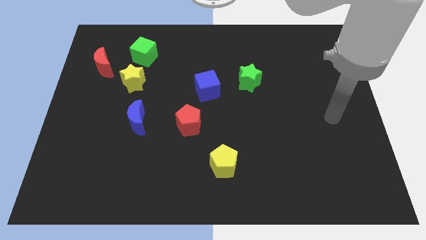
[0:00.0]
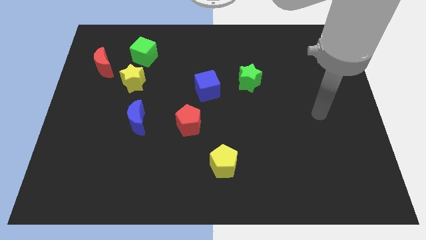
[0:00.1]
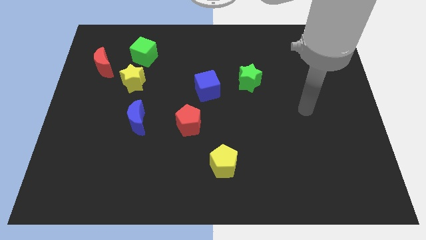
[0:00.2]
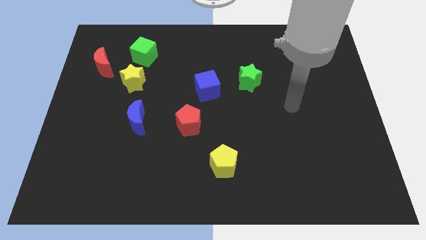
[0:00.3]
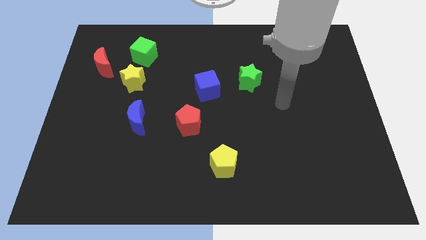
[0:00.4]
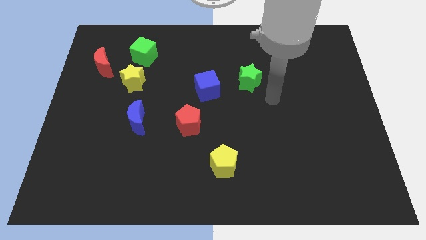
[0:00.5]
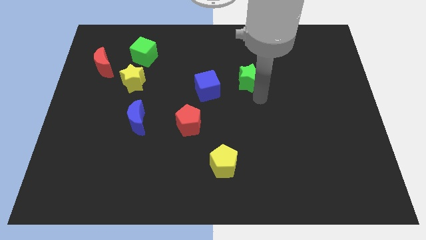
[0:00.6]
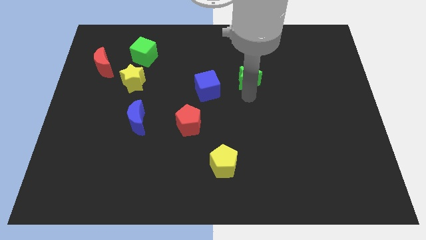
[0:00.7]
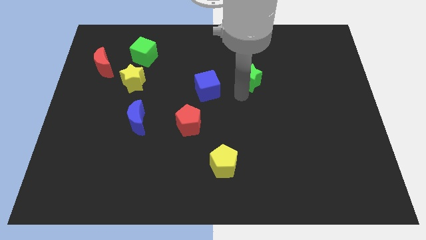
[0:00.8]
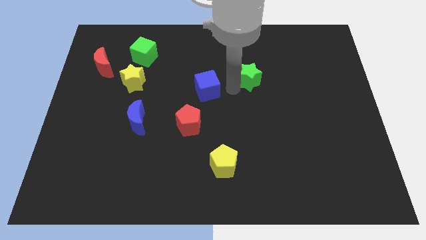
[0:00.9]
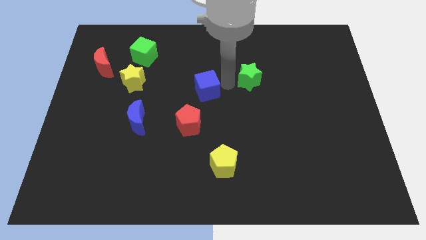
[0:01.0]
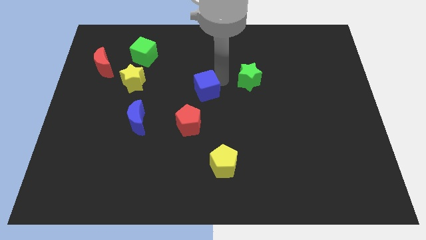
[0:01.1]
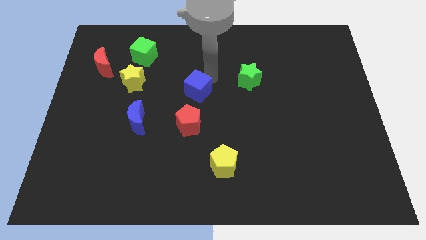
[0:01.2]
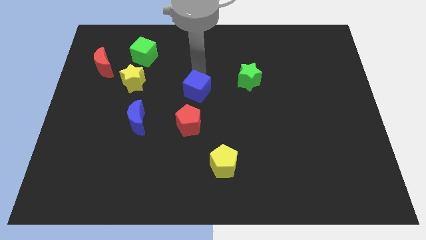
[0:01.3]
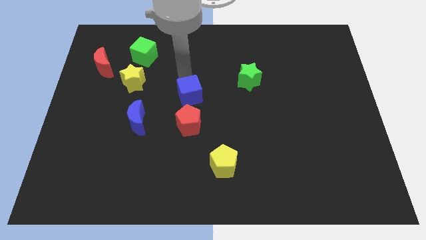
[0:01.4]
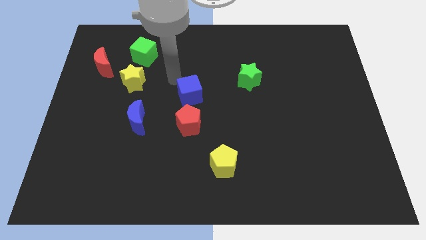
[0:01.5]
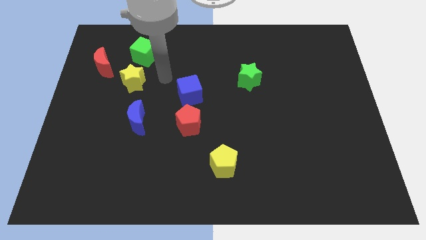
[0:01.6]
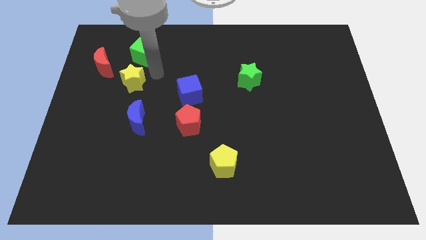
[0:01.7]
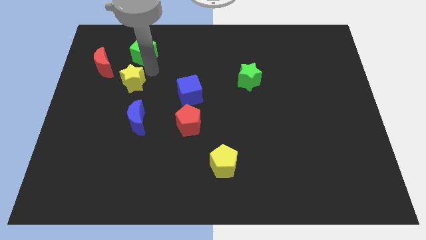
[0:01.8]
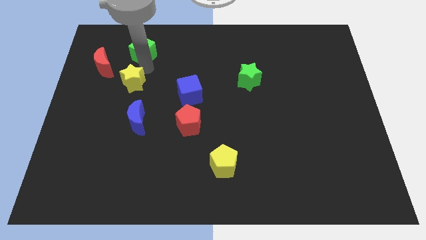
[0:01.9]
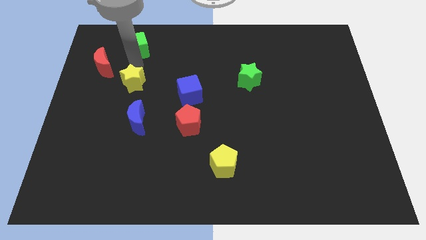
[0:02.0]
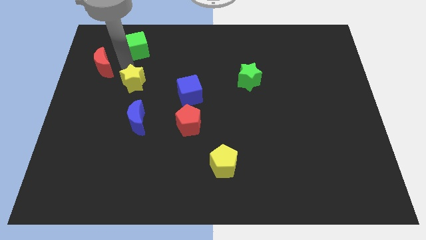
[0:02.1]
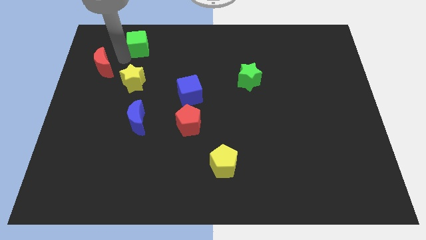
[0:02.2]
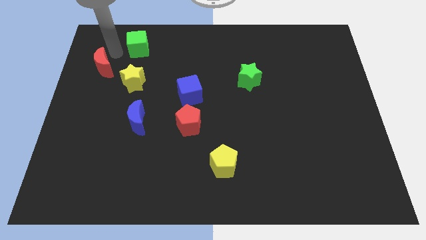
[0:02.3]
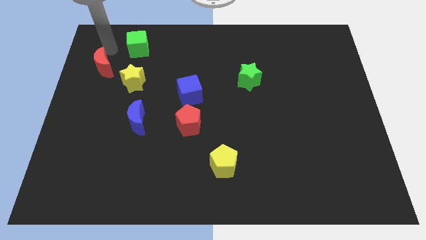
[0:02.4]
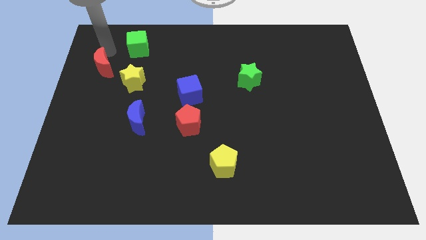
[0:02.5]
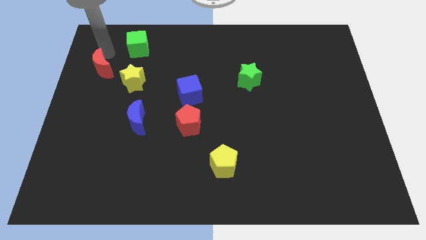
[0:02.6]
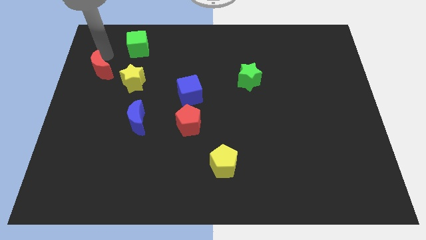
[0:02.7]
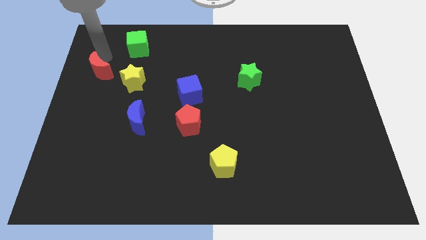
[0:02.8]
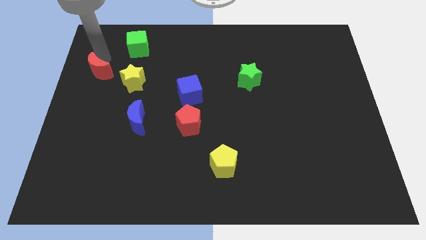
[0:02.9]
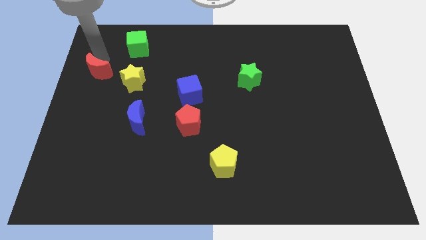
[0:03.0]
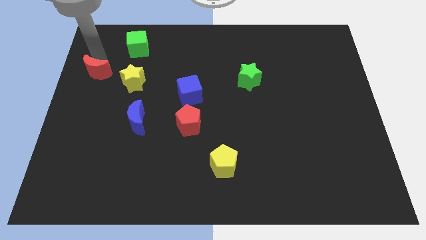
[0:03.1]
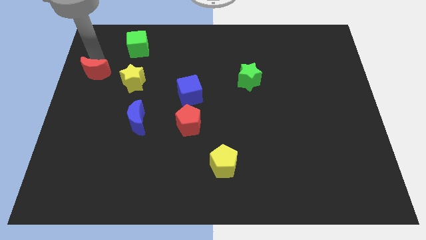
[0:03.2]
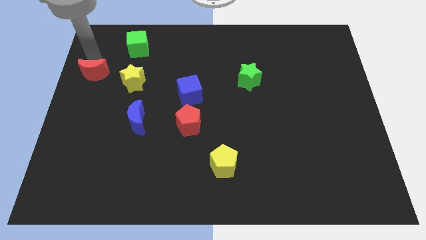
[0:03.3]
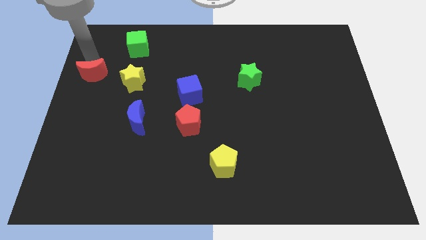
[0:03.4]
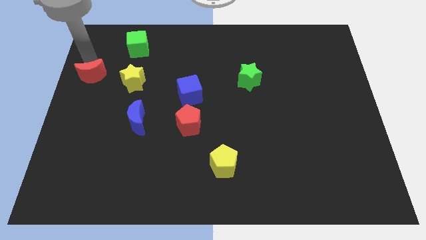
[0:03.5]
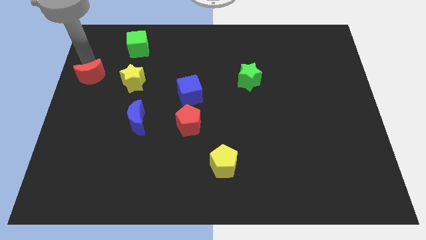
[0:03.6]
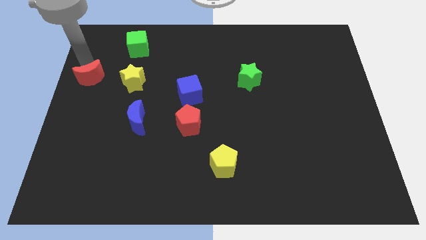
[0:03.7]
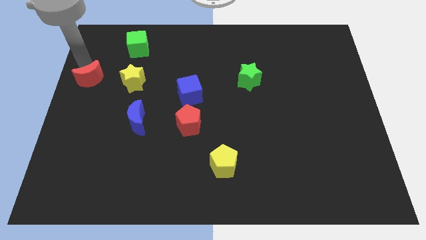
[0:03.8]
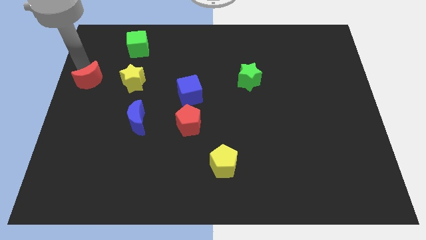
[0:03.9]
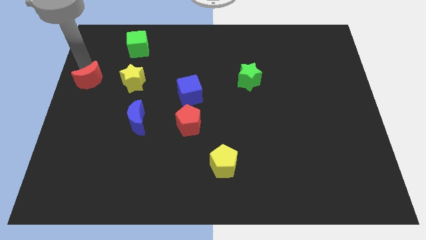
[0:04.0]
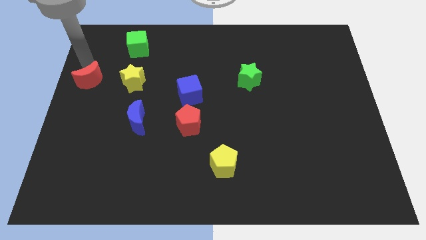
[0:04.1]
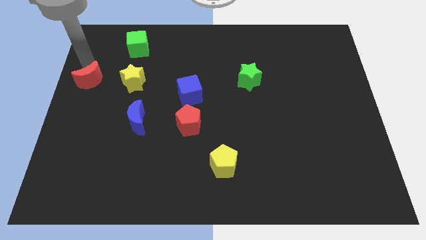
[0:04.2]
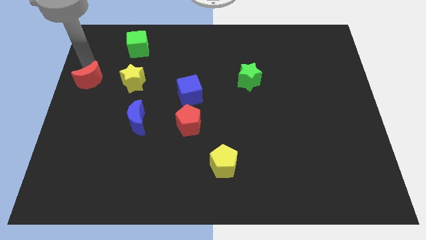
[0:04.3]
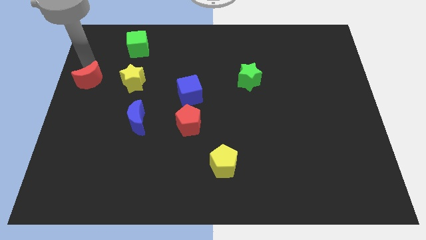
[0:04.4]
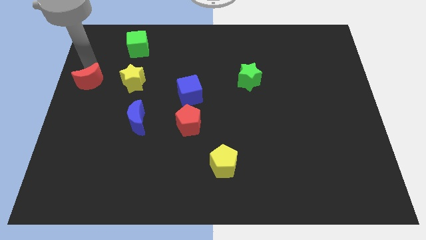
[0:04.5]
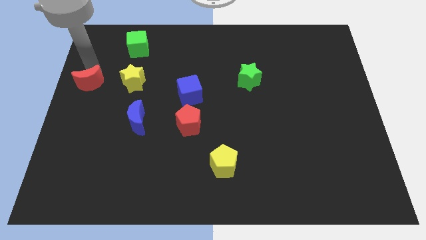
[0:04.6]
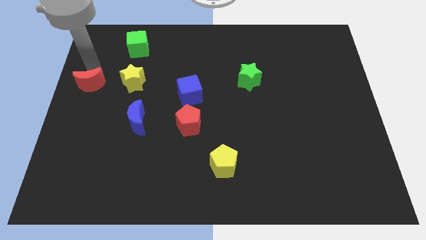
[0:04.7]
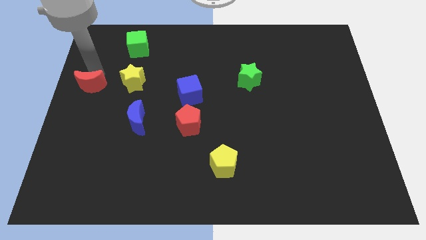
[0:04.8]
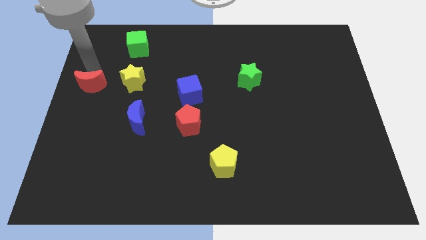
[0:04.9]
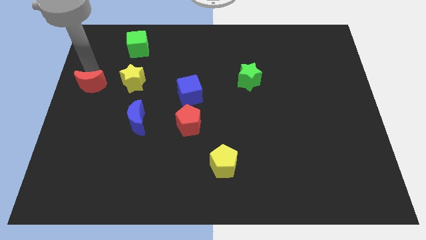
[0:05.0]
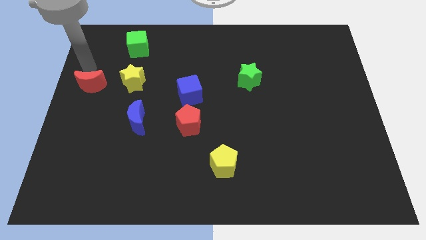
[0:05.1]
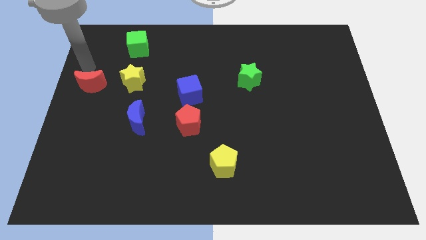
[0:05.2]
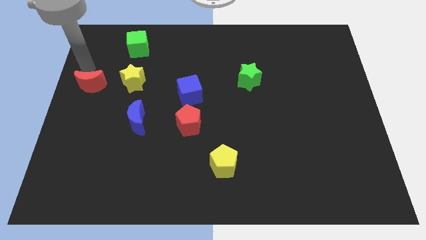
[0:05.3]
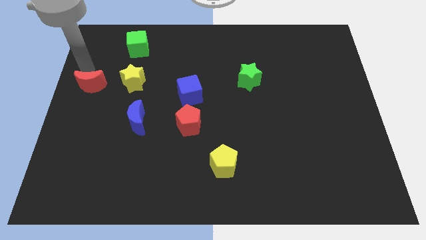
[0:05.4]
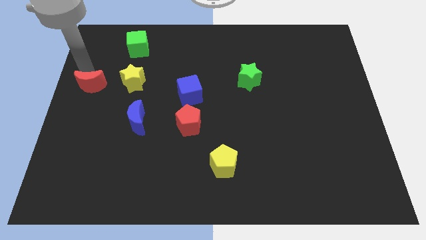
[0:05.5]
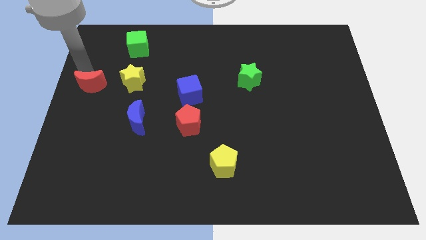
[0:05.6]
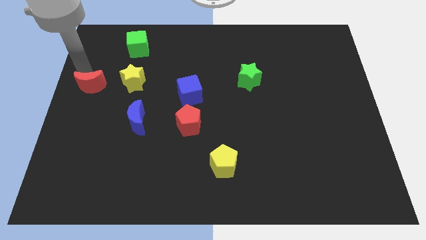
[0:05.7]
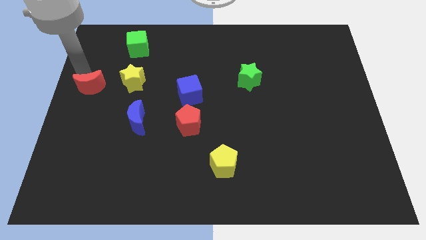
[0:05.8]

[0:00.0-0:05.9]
slide the red moon a bit down

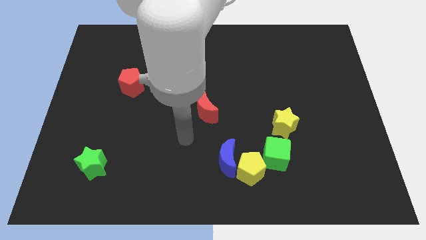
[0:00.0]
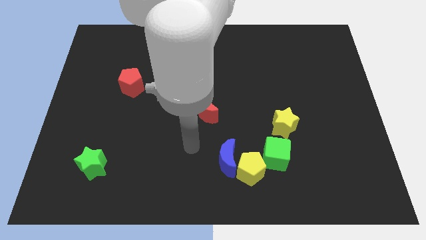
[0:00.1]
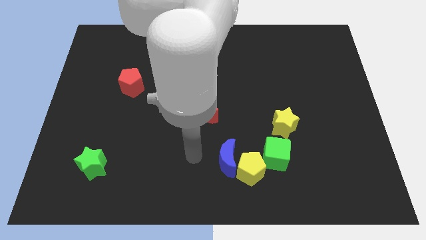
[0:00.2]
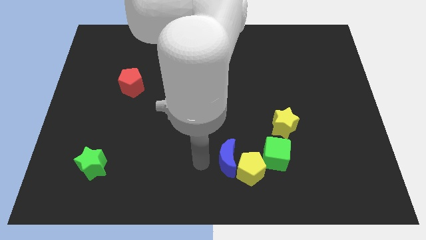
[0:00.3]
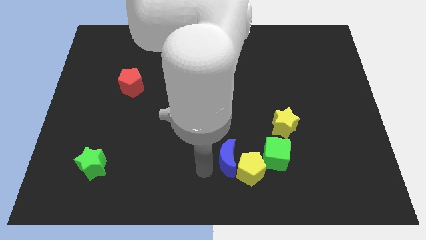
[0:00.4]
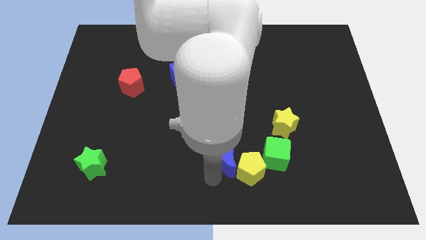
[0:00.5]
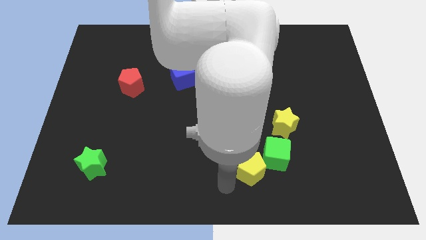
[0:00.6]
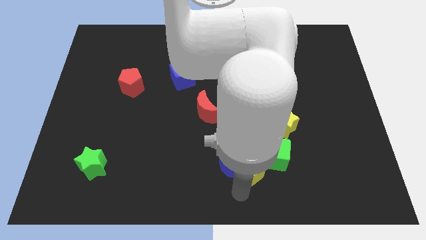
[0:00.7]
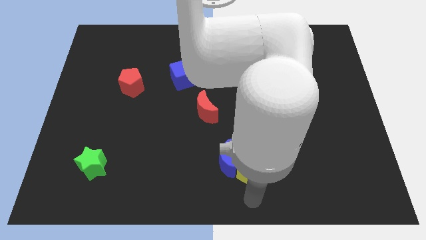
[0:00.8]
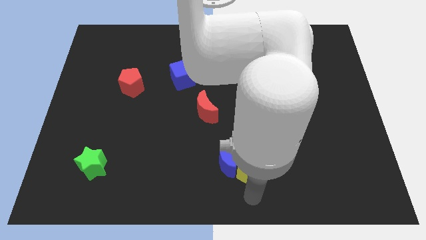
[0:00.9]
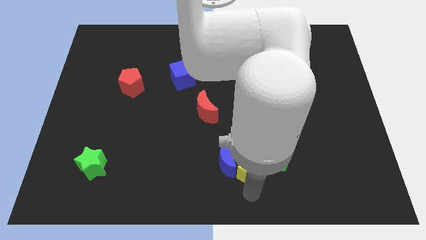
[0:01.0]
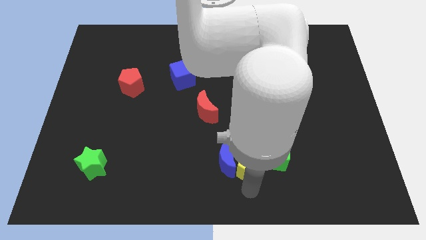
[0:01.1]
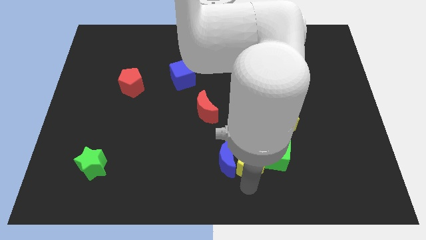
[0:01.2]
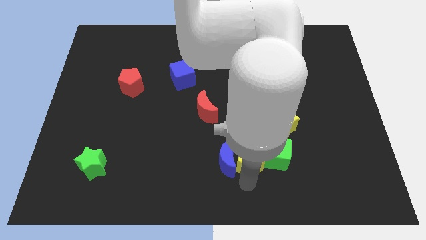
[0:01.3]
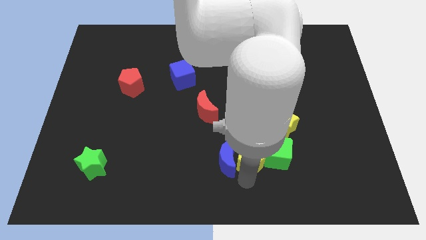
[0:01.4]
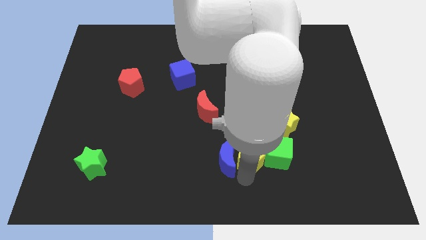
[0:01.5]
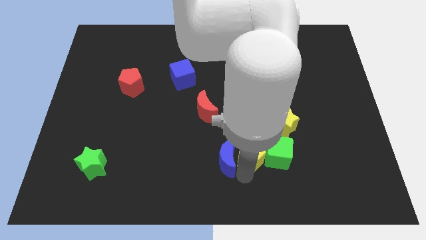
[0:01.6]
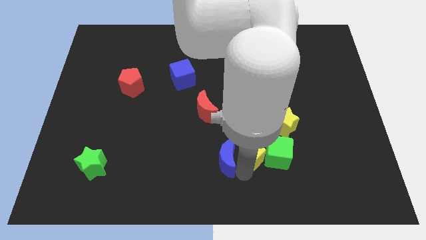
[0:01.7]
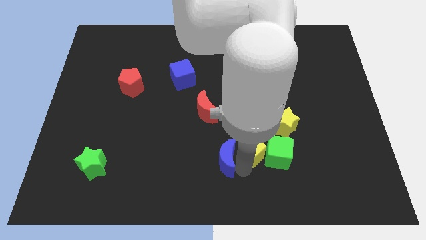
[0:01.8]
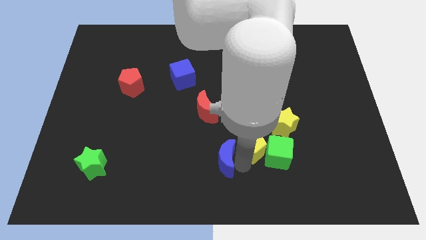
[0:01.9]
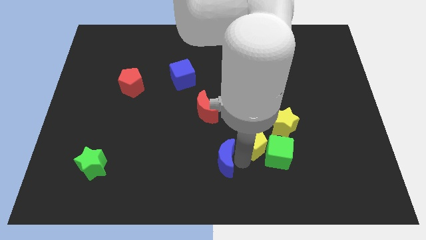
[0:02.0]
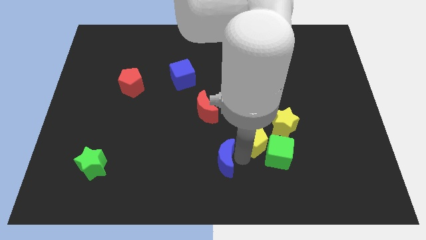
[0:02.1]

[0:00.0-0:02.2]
move the yellow pentagon a little bit up
